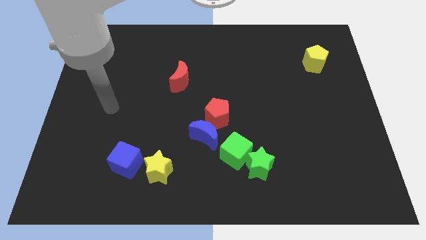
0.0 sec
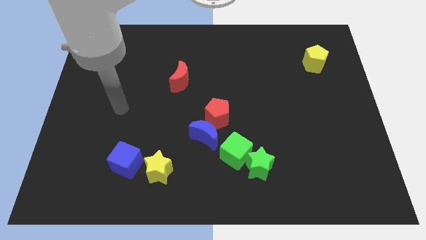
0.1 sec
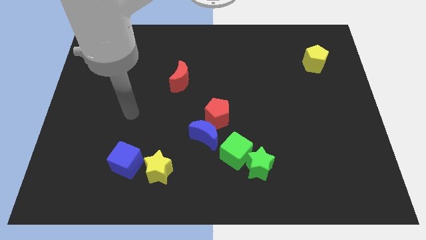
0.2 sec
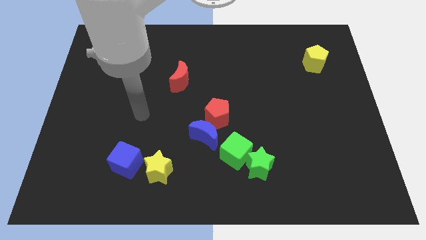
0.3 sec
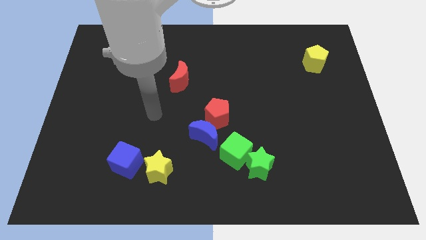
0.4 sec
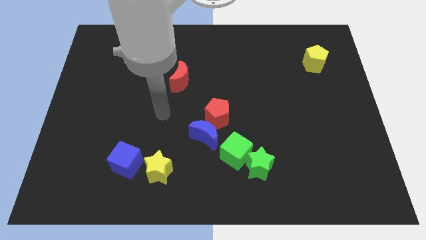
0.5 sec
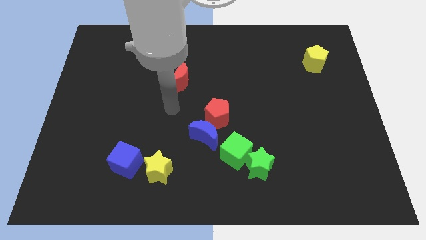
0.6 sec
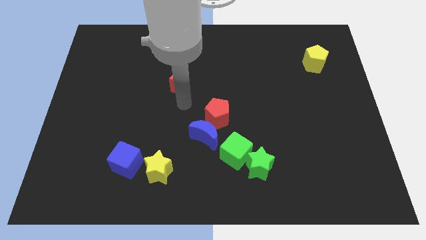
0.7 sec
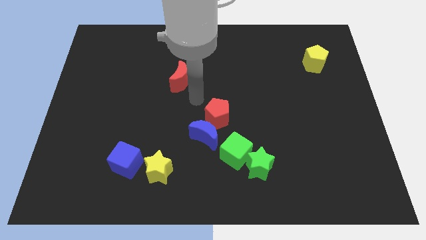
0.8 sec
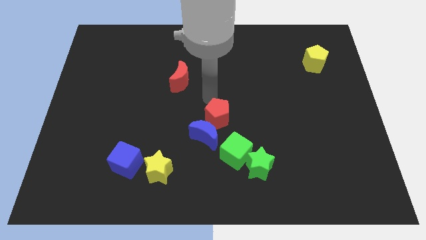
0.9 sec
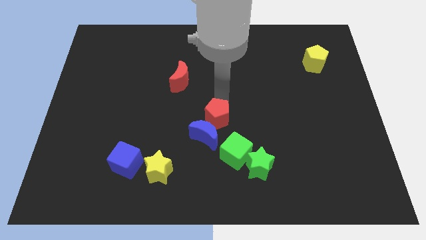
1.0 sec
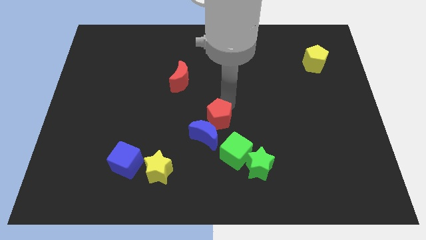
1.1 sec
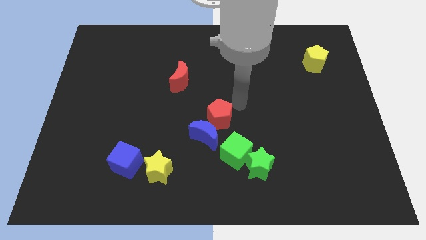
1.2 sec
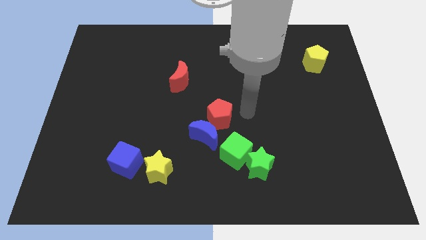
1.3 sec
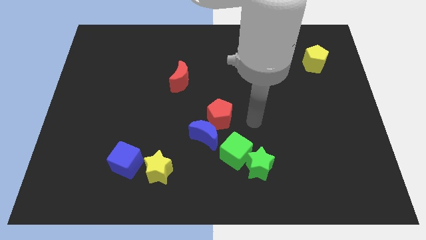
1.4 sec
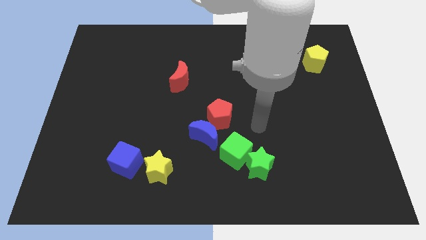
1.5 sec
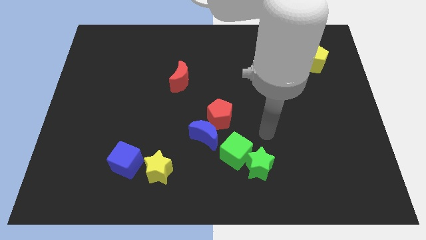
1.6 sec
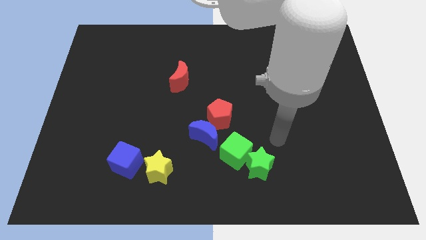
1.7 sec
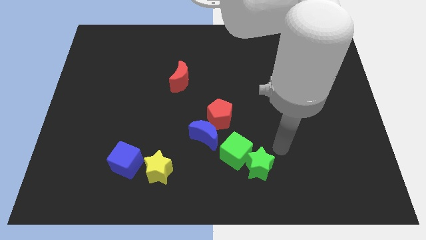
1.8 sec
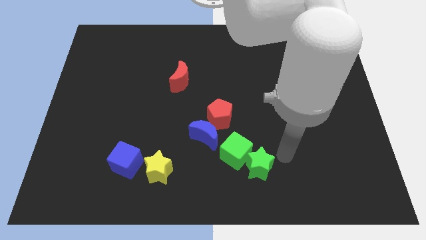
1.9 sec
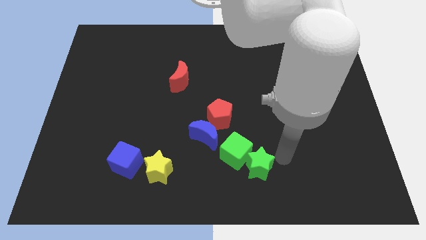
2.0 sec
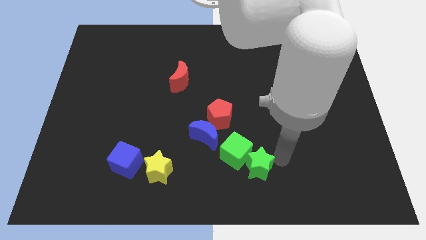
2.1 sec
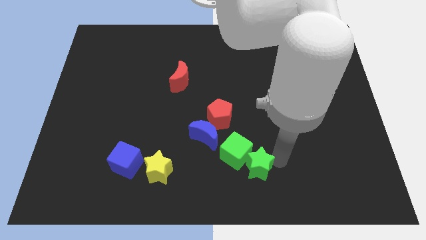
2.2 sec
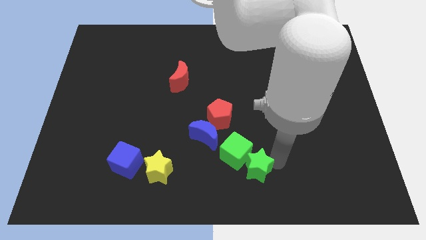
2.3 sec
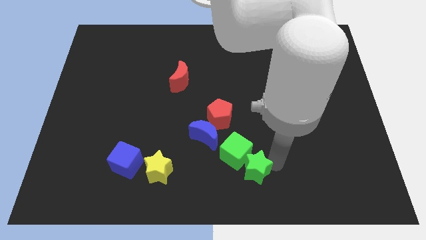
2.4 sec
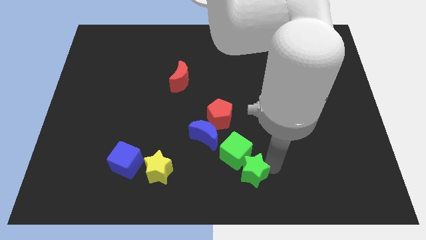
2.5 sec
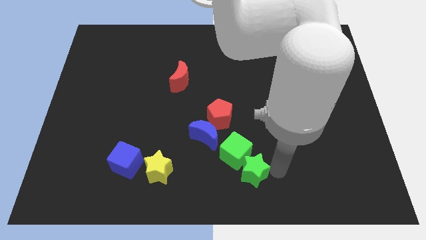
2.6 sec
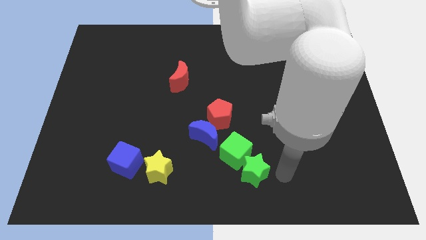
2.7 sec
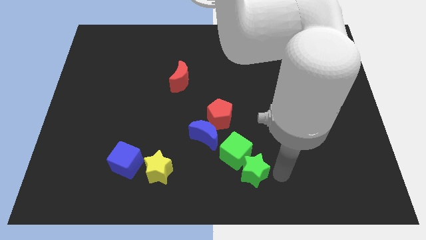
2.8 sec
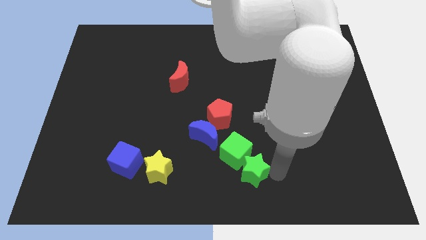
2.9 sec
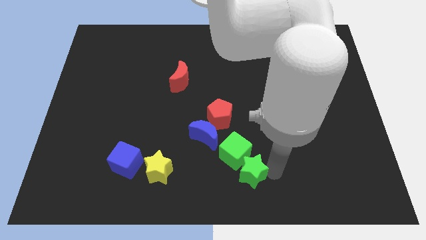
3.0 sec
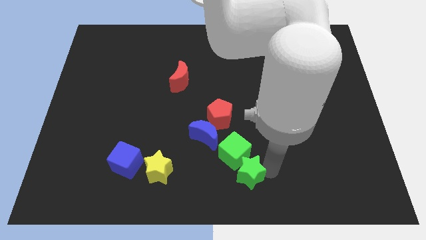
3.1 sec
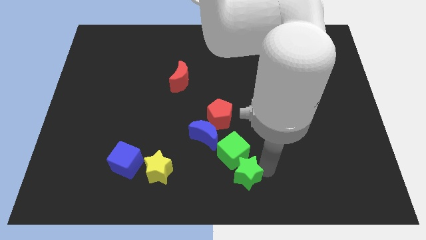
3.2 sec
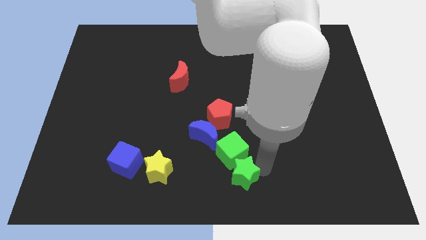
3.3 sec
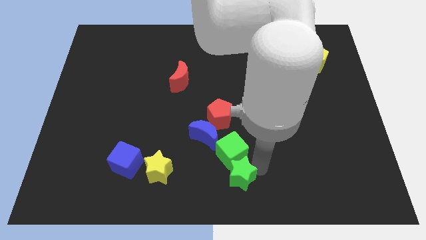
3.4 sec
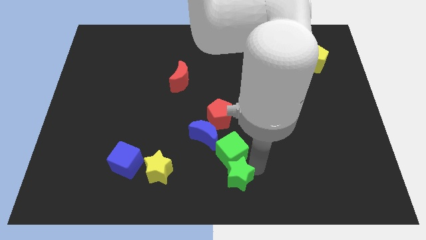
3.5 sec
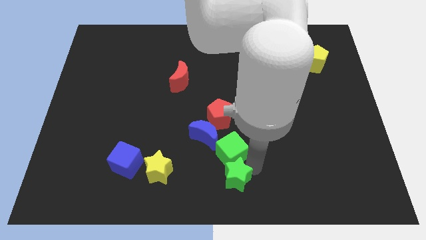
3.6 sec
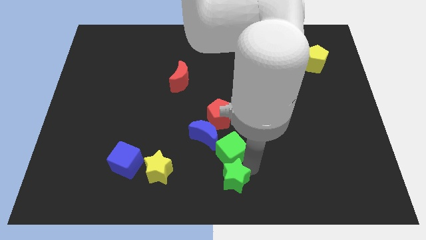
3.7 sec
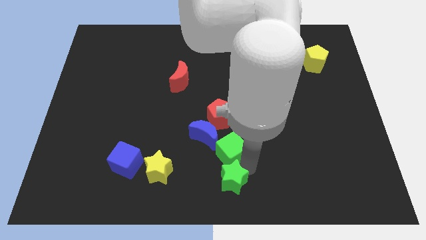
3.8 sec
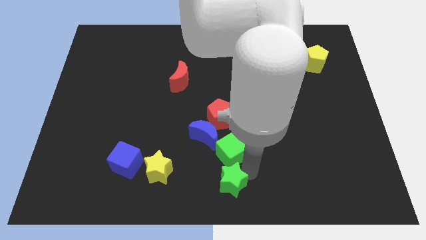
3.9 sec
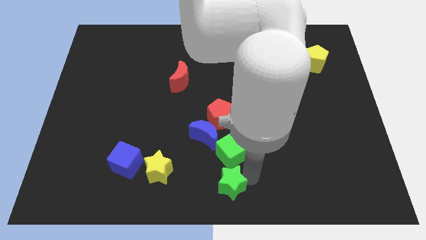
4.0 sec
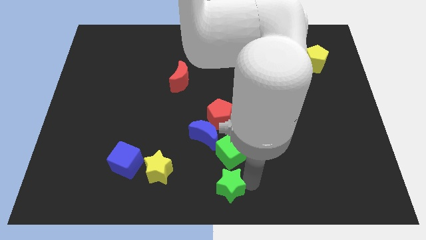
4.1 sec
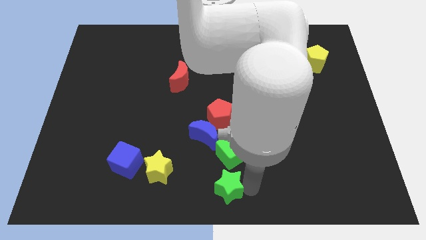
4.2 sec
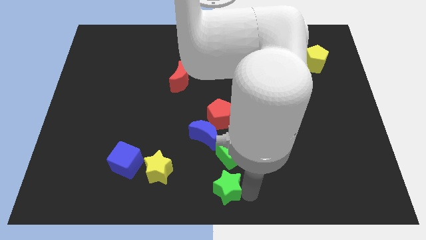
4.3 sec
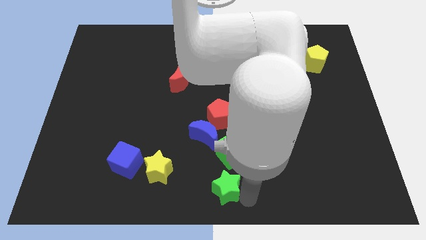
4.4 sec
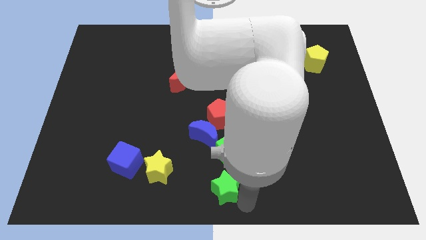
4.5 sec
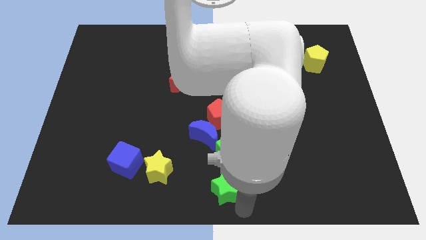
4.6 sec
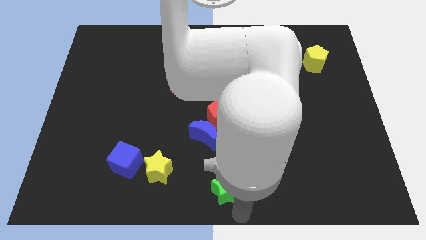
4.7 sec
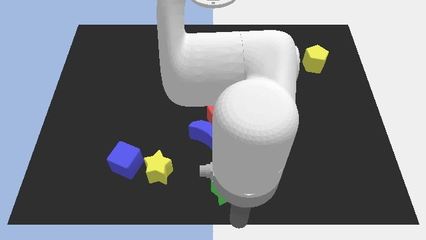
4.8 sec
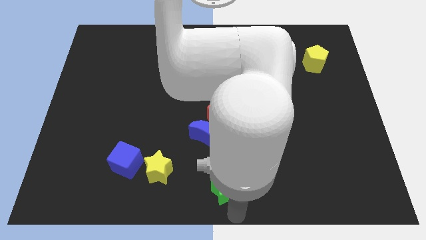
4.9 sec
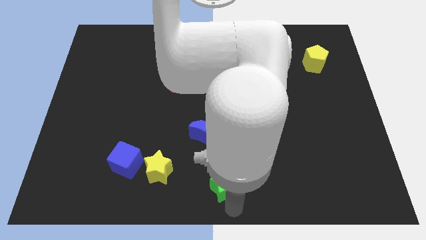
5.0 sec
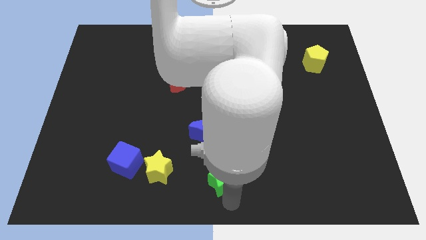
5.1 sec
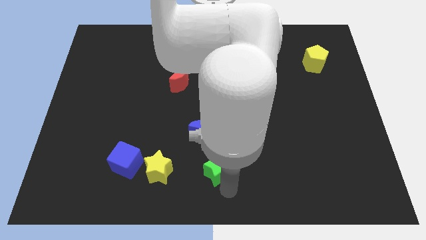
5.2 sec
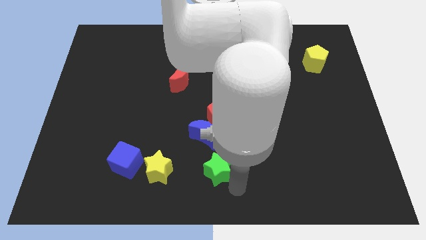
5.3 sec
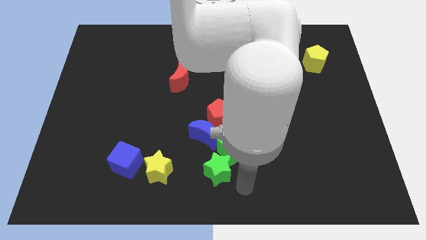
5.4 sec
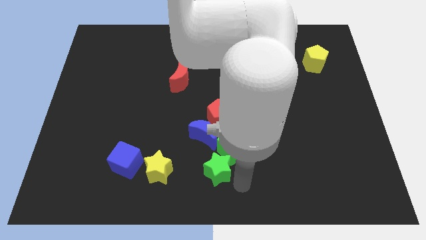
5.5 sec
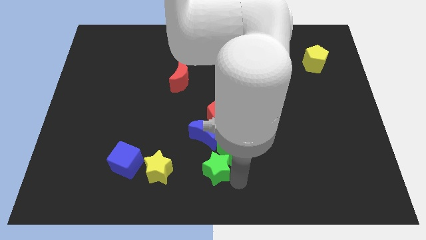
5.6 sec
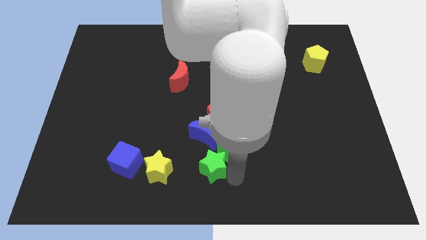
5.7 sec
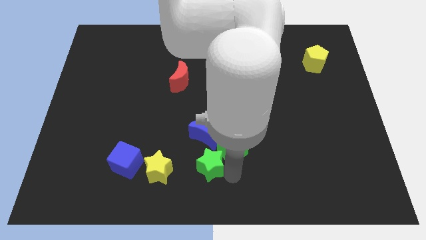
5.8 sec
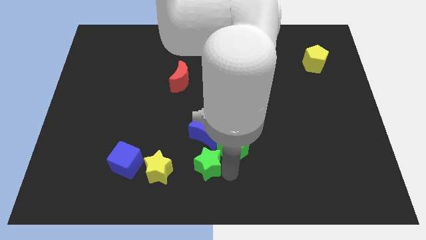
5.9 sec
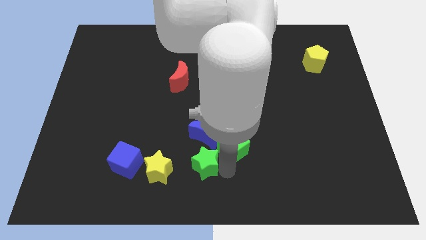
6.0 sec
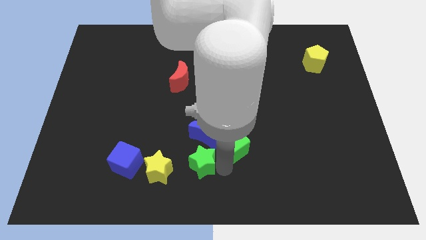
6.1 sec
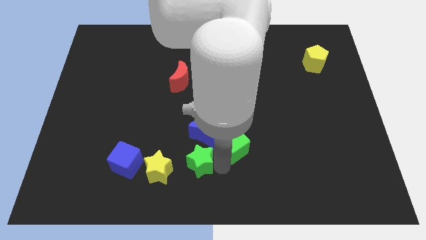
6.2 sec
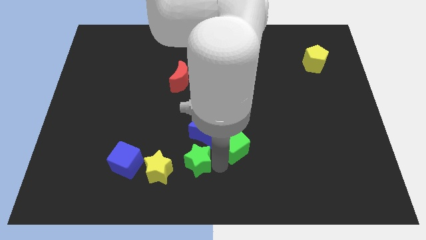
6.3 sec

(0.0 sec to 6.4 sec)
push the green star a bit upwards and to the left

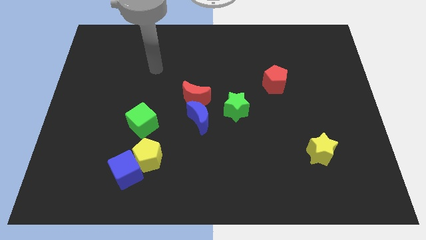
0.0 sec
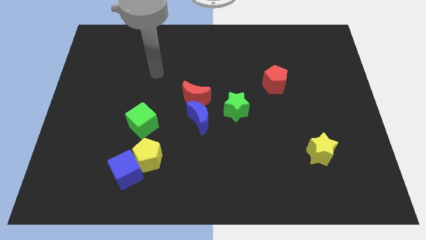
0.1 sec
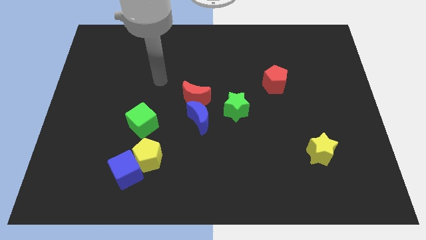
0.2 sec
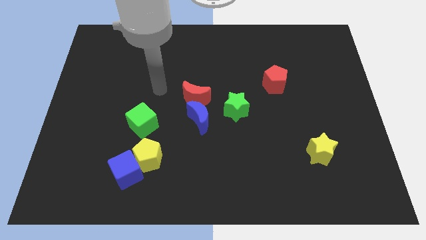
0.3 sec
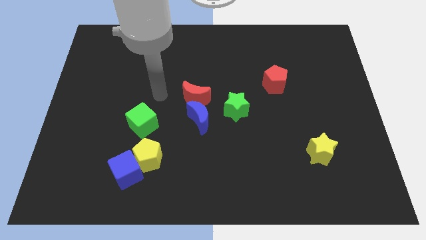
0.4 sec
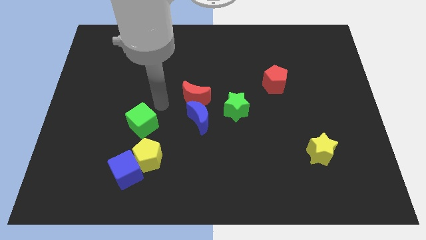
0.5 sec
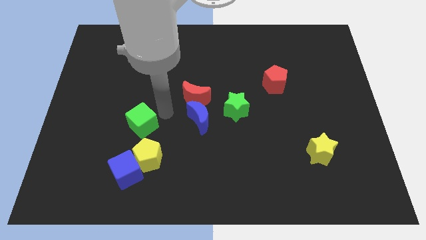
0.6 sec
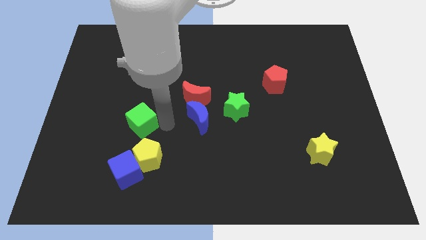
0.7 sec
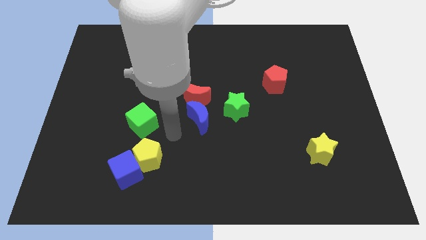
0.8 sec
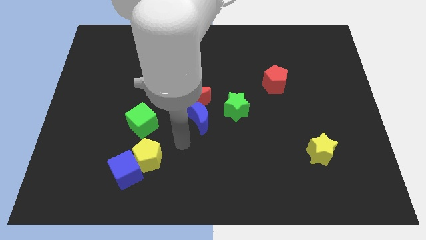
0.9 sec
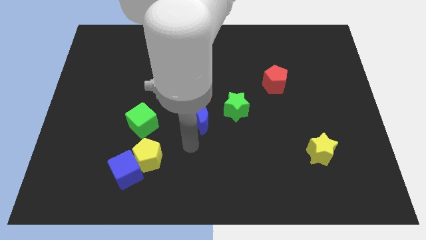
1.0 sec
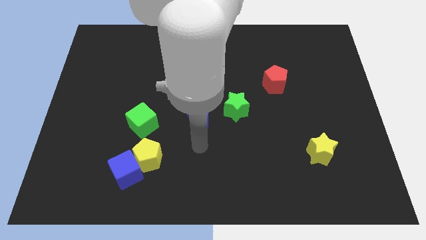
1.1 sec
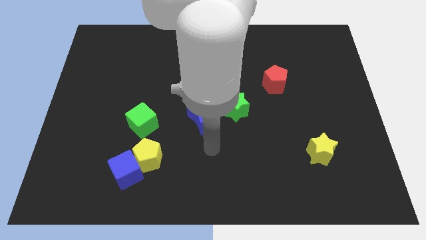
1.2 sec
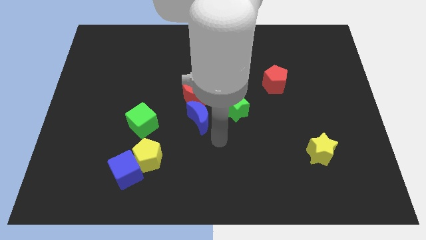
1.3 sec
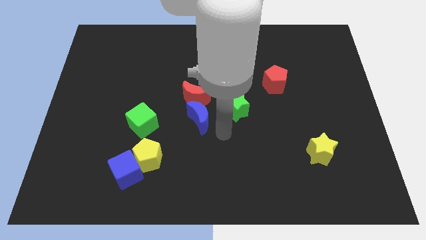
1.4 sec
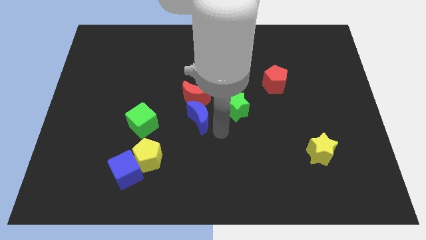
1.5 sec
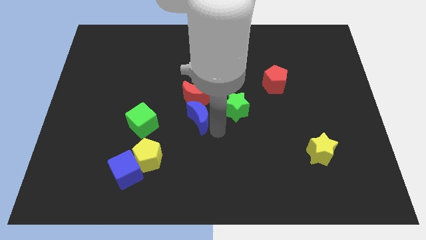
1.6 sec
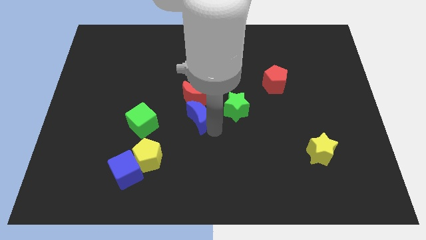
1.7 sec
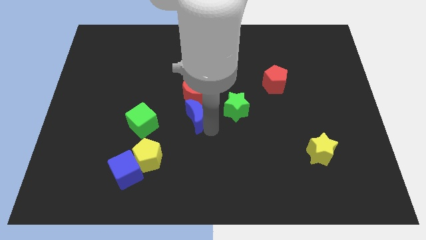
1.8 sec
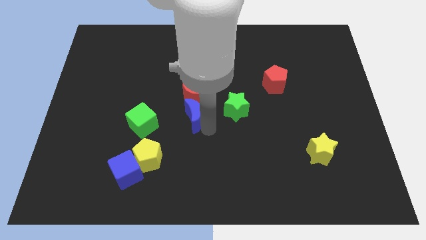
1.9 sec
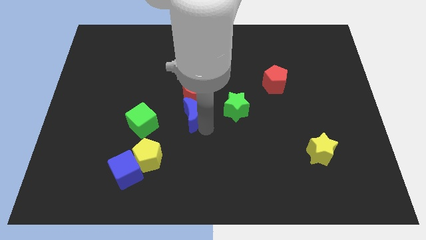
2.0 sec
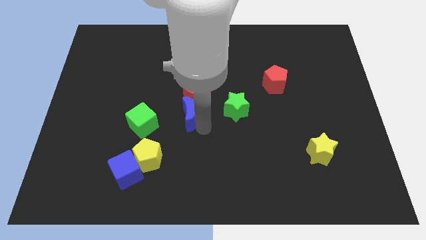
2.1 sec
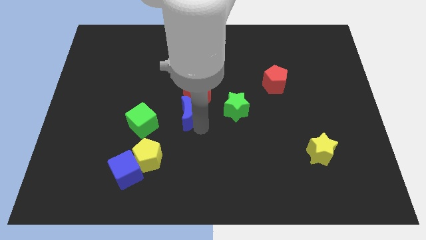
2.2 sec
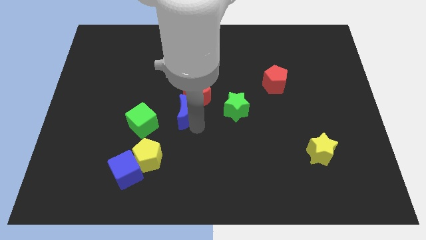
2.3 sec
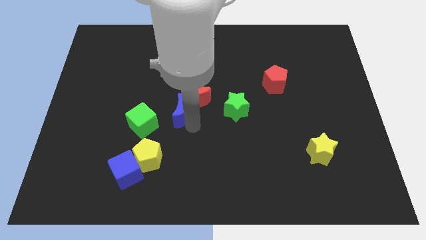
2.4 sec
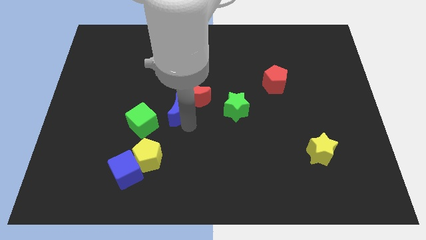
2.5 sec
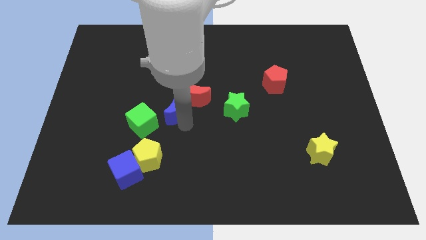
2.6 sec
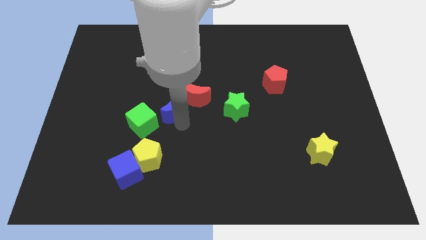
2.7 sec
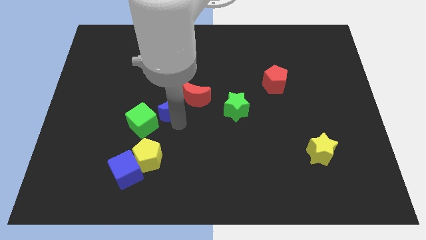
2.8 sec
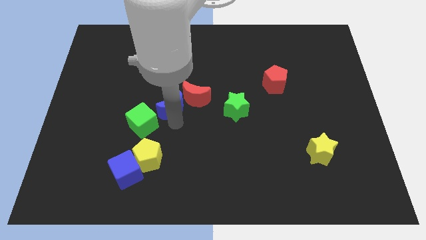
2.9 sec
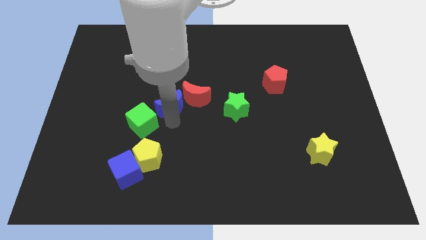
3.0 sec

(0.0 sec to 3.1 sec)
move the blue moon somewhat upwards and then left
